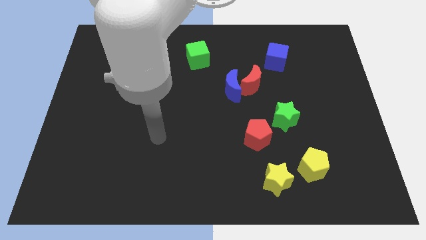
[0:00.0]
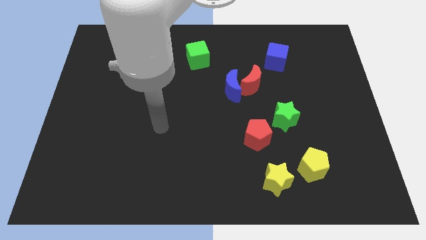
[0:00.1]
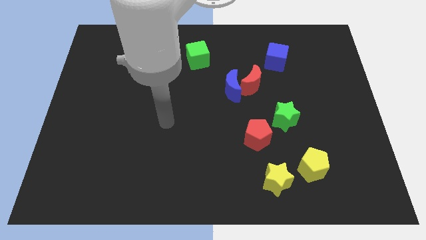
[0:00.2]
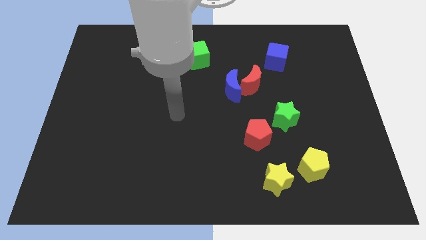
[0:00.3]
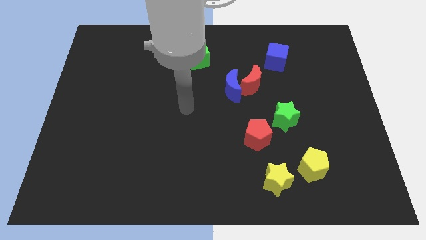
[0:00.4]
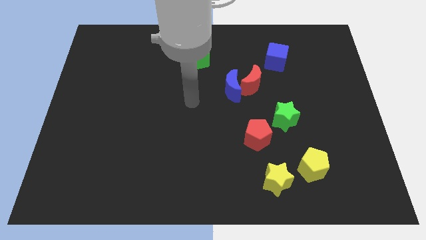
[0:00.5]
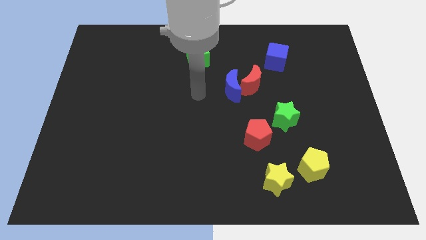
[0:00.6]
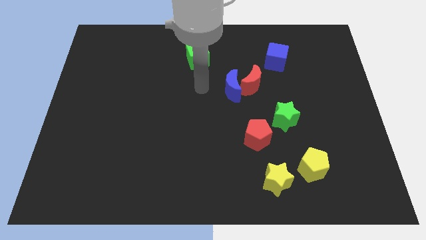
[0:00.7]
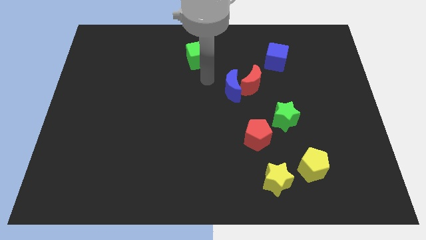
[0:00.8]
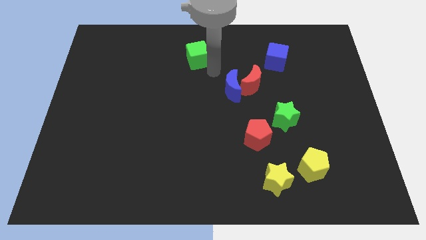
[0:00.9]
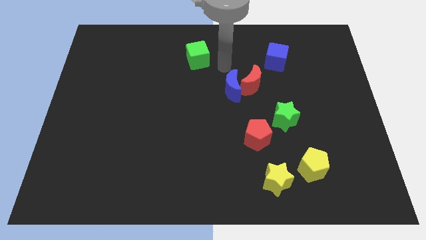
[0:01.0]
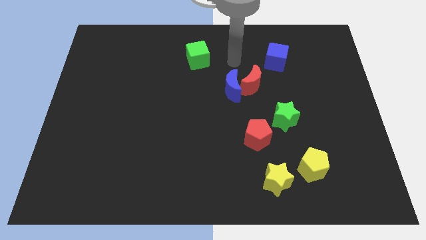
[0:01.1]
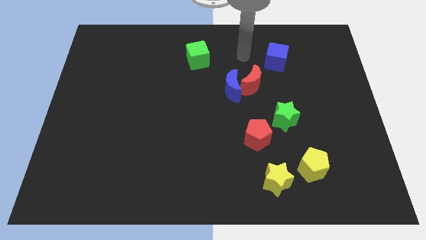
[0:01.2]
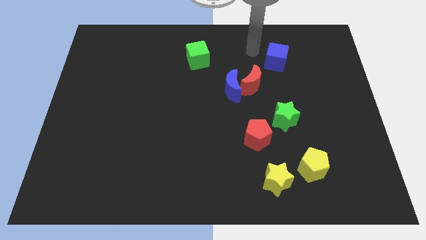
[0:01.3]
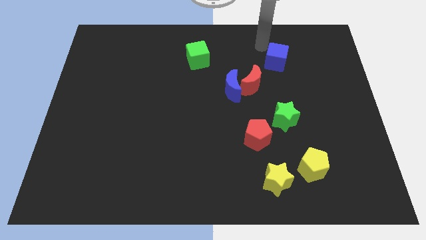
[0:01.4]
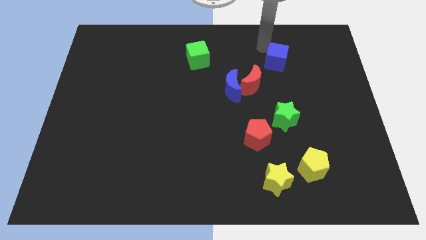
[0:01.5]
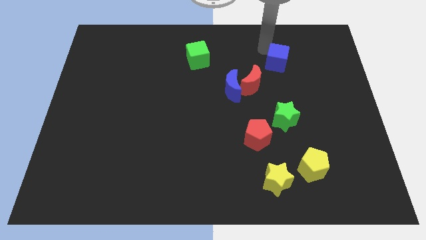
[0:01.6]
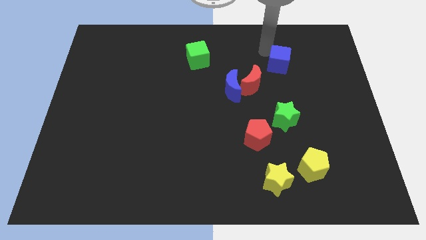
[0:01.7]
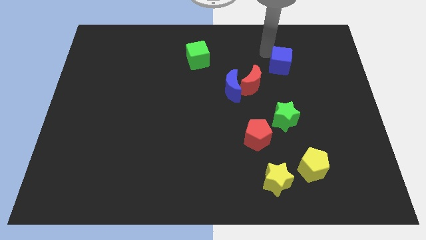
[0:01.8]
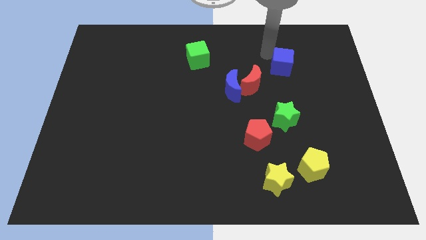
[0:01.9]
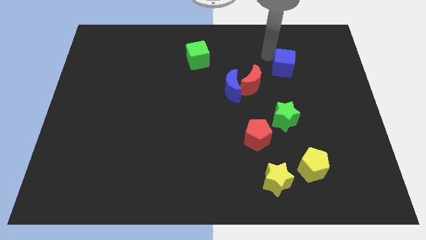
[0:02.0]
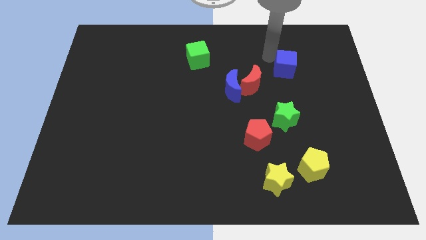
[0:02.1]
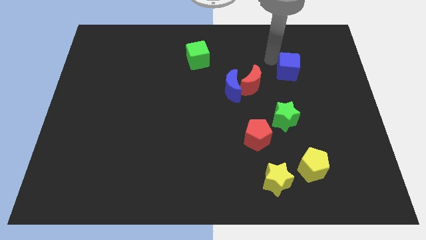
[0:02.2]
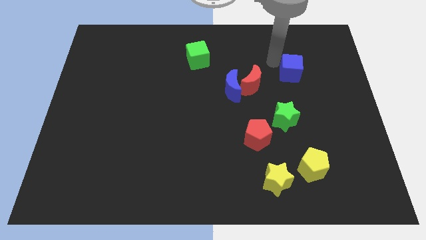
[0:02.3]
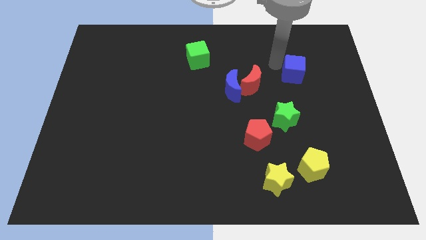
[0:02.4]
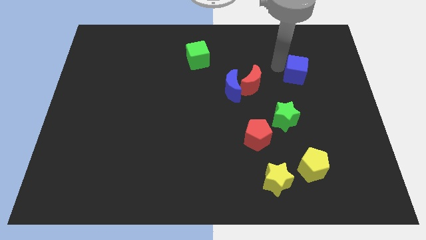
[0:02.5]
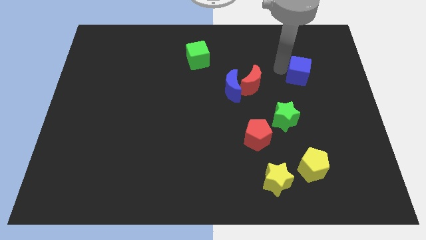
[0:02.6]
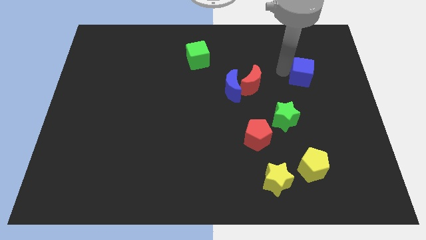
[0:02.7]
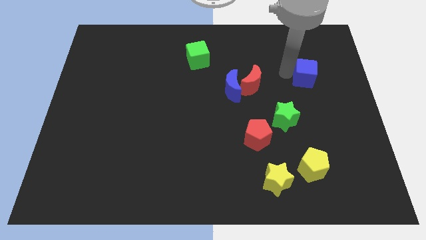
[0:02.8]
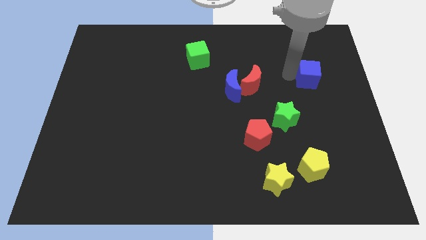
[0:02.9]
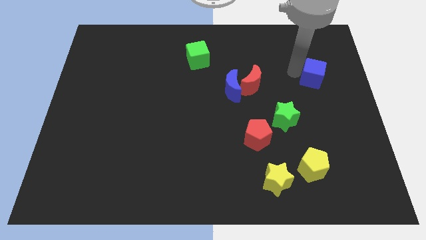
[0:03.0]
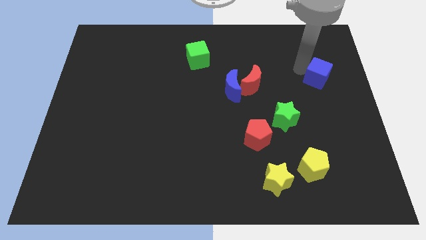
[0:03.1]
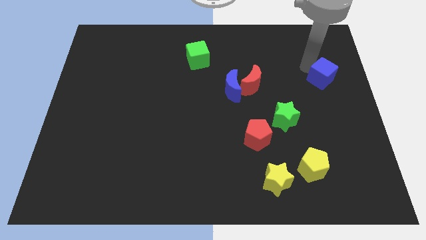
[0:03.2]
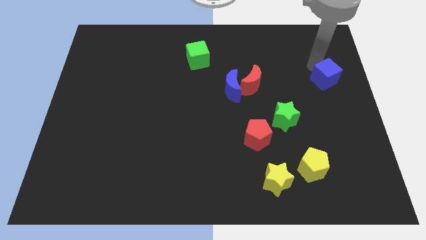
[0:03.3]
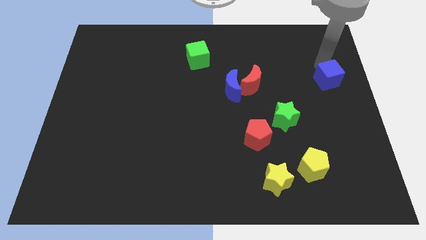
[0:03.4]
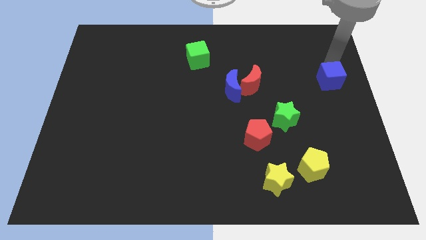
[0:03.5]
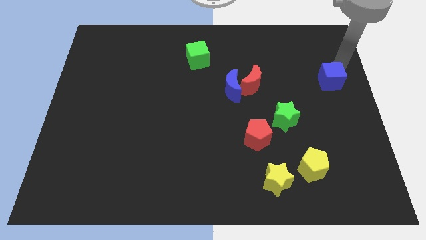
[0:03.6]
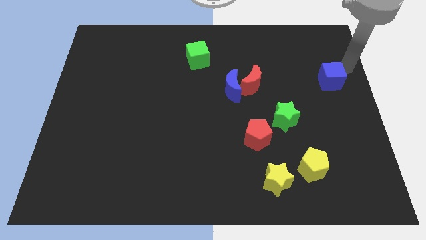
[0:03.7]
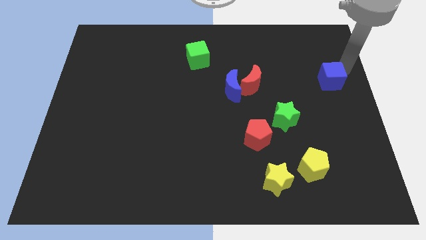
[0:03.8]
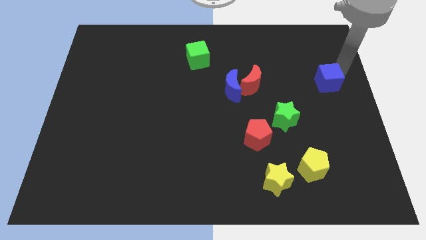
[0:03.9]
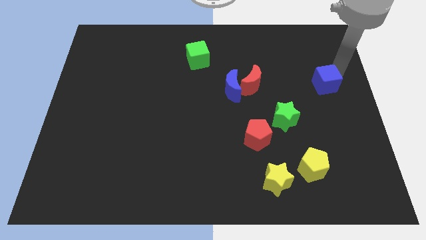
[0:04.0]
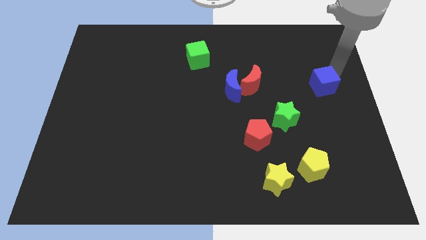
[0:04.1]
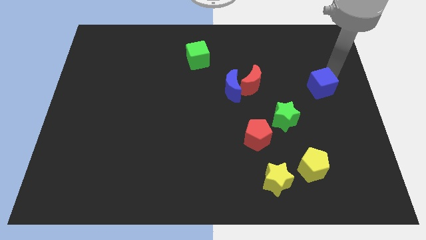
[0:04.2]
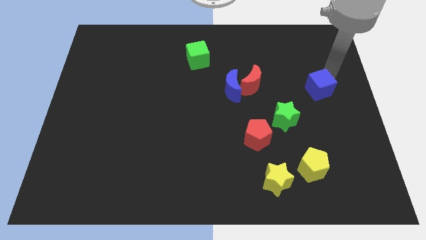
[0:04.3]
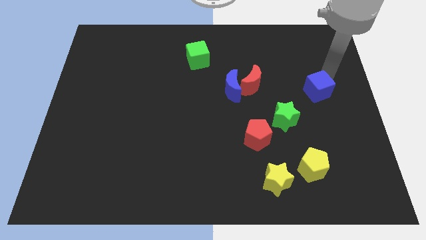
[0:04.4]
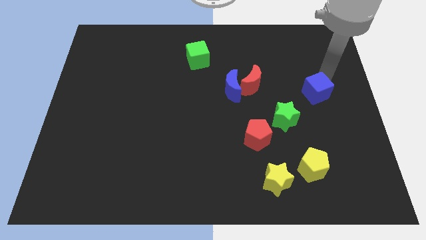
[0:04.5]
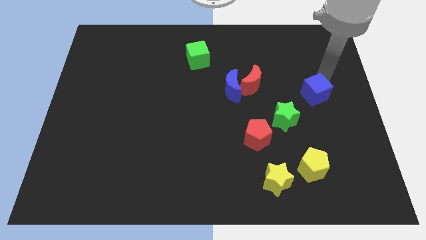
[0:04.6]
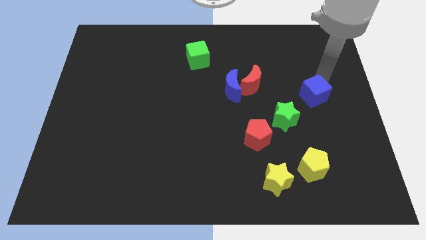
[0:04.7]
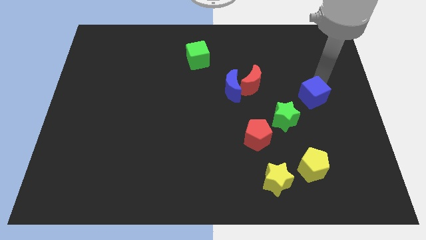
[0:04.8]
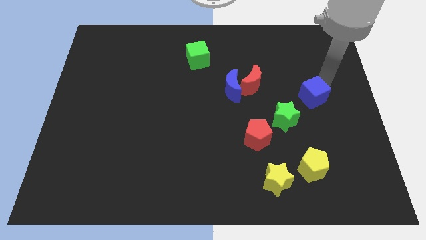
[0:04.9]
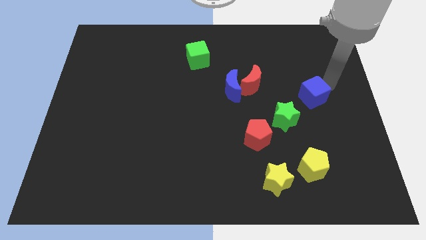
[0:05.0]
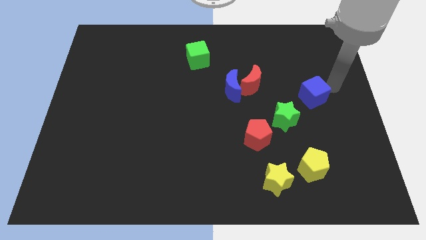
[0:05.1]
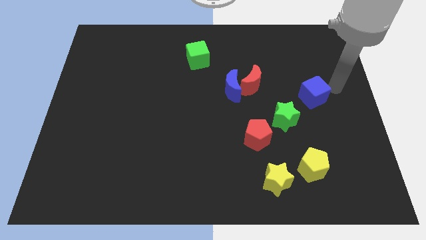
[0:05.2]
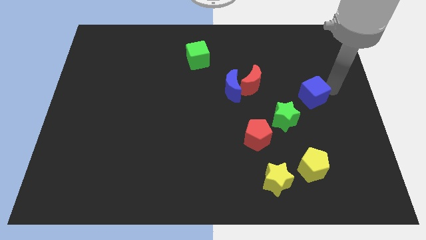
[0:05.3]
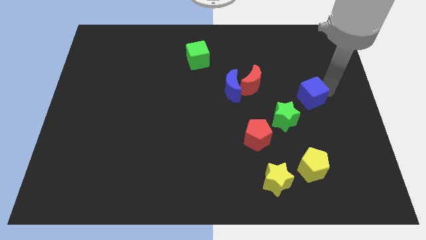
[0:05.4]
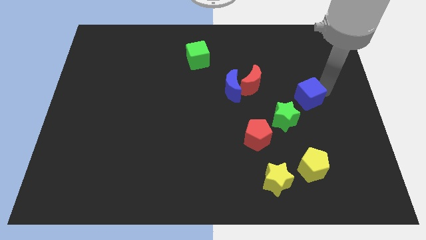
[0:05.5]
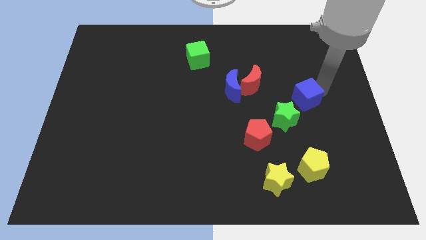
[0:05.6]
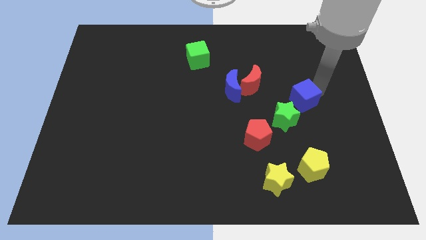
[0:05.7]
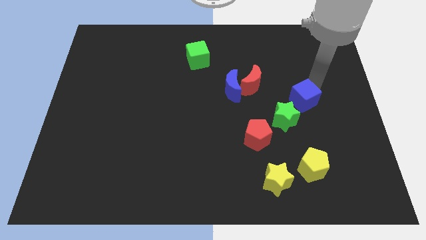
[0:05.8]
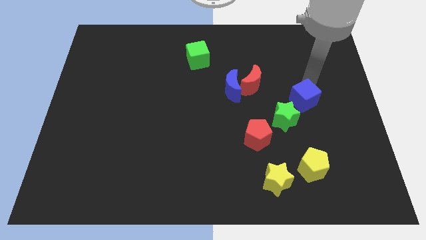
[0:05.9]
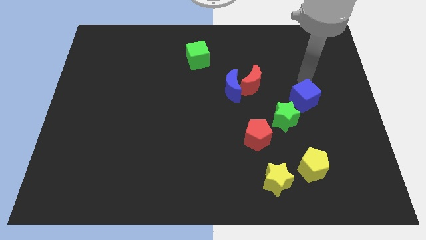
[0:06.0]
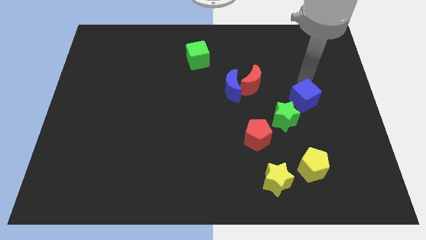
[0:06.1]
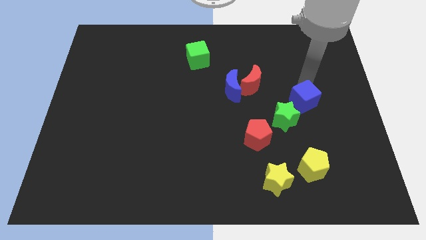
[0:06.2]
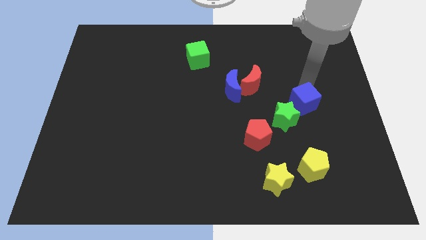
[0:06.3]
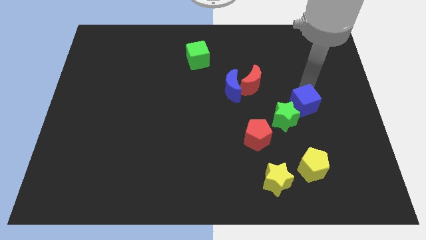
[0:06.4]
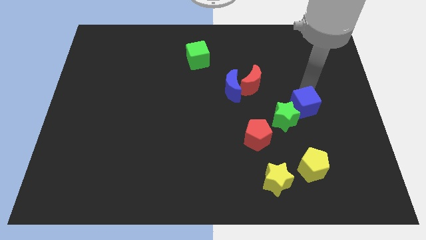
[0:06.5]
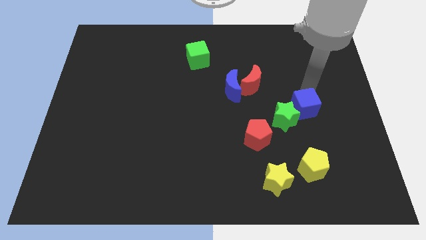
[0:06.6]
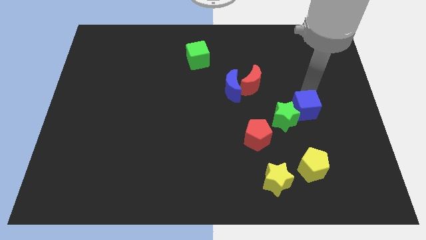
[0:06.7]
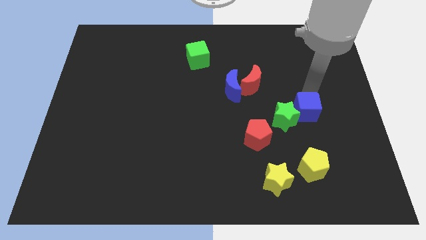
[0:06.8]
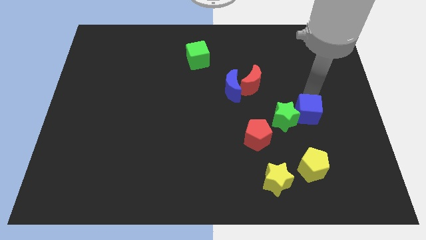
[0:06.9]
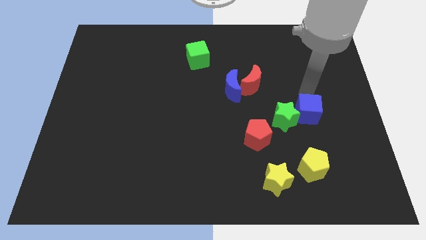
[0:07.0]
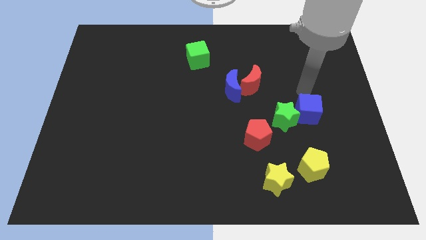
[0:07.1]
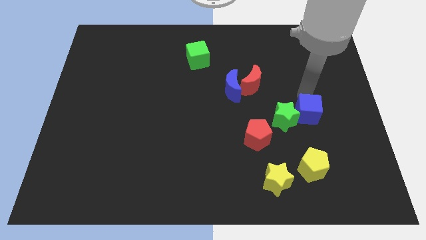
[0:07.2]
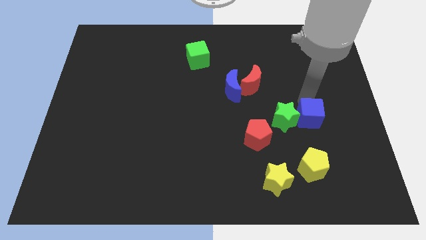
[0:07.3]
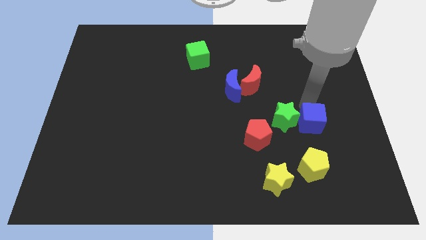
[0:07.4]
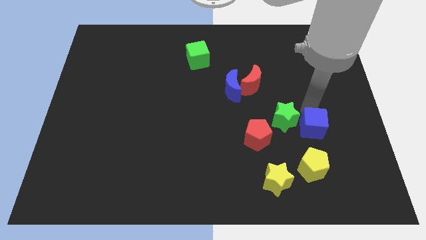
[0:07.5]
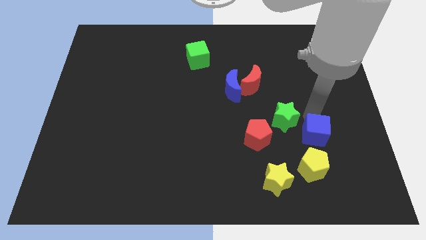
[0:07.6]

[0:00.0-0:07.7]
slide the blue cube down

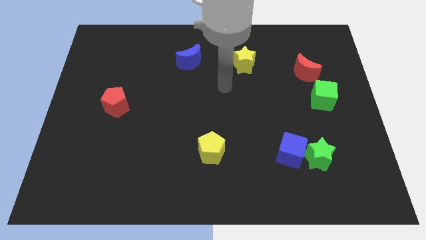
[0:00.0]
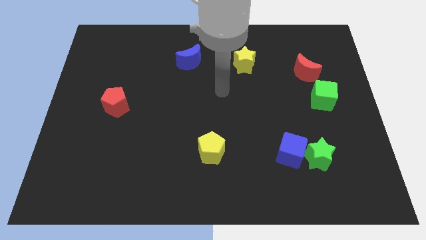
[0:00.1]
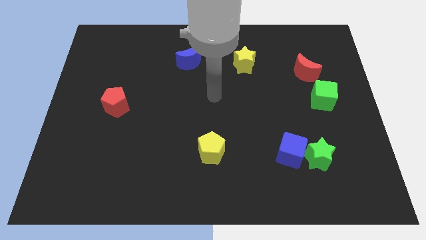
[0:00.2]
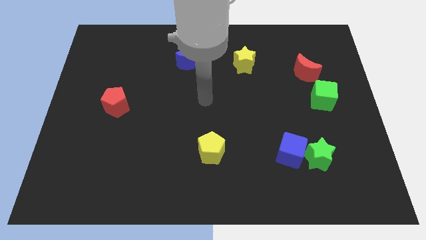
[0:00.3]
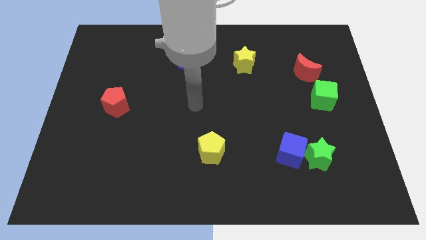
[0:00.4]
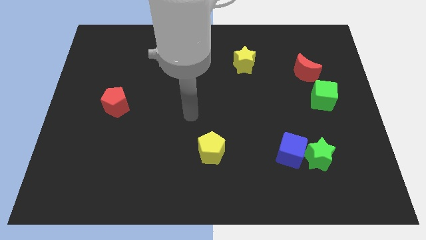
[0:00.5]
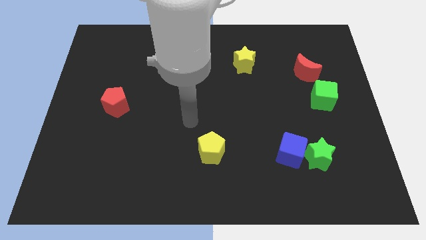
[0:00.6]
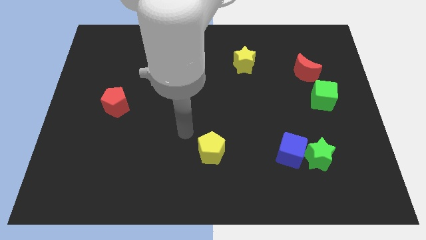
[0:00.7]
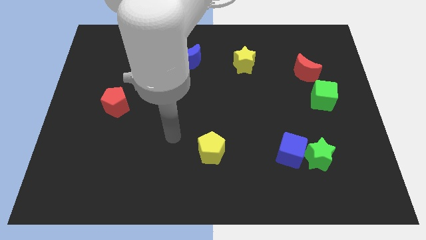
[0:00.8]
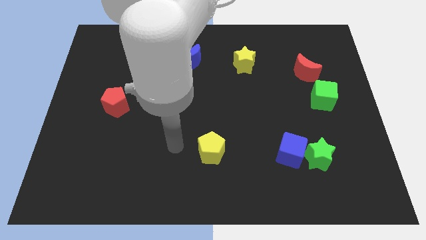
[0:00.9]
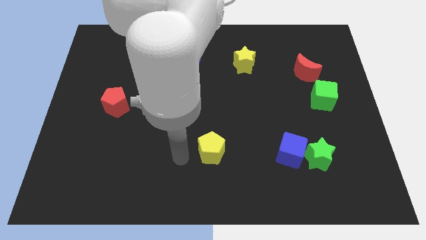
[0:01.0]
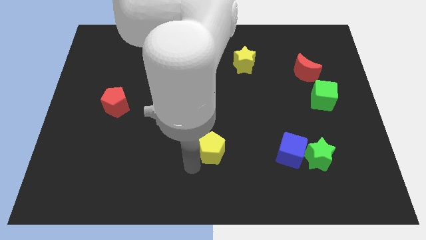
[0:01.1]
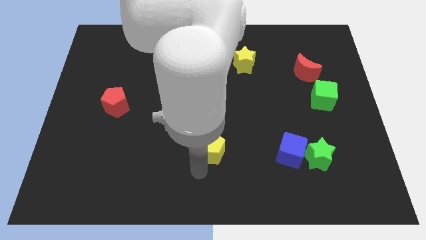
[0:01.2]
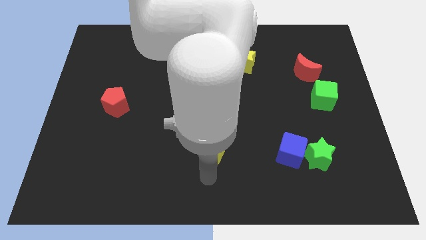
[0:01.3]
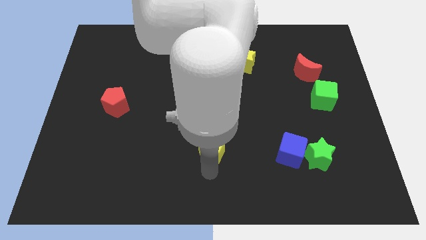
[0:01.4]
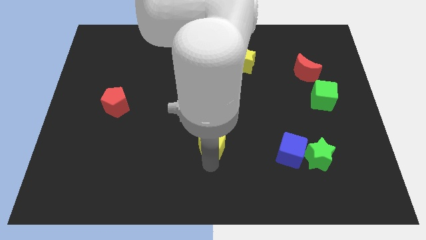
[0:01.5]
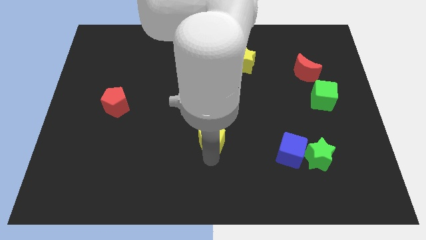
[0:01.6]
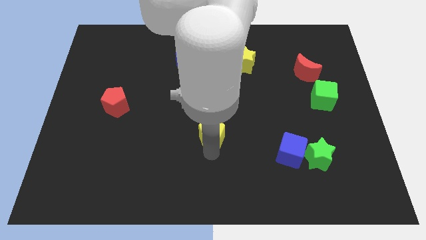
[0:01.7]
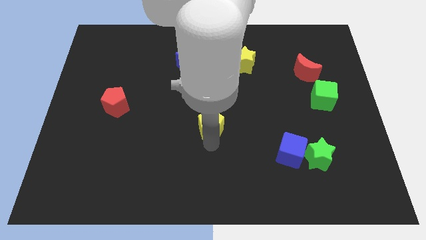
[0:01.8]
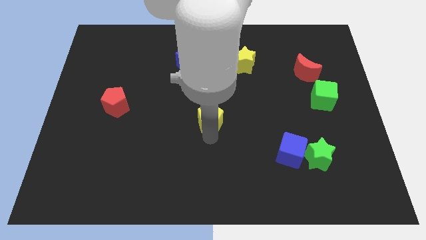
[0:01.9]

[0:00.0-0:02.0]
move the yellow pentagon up somewhat
